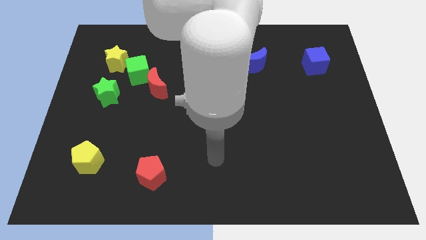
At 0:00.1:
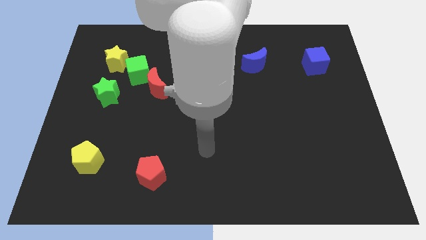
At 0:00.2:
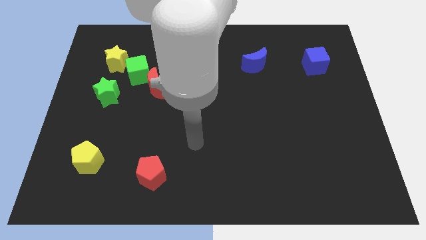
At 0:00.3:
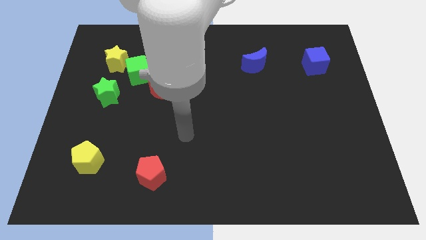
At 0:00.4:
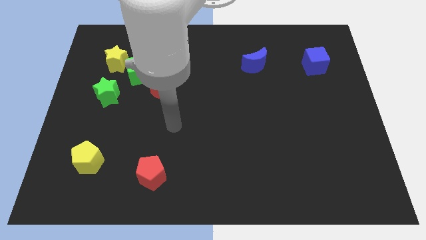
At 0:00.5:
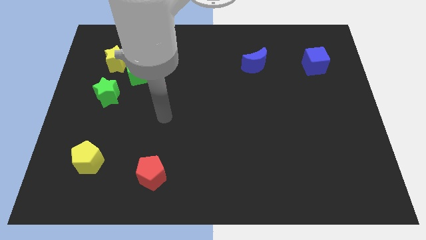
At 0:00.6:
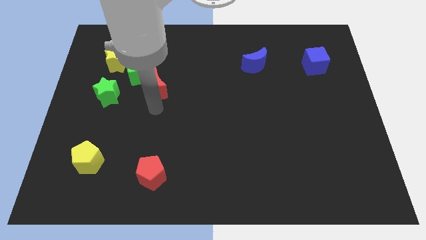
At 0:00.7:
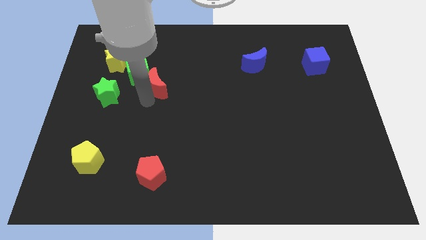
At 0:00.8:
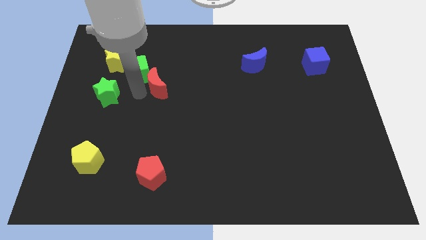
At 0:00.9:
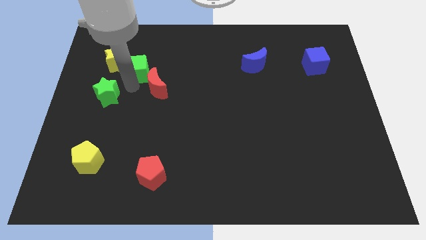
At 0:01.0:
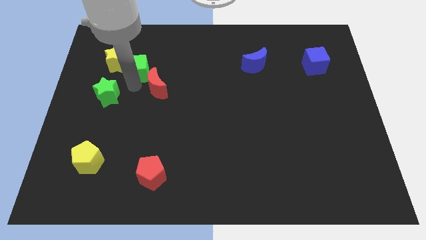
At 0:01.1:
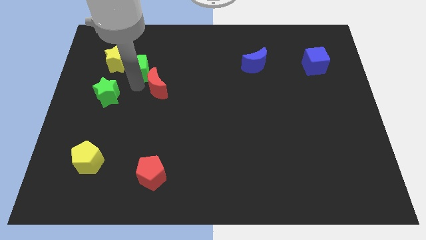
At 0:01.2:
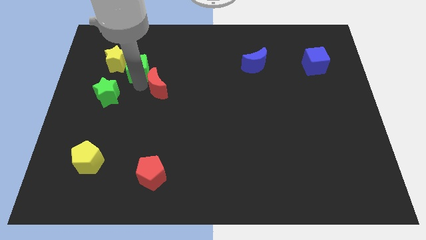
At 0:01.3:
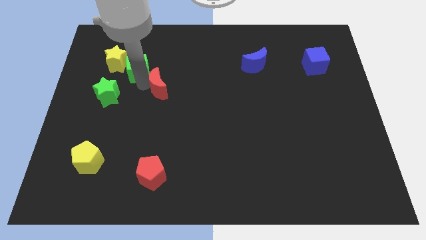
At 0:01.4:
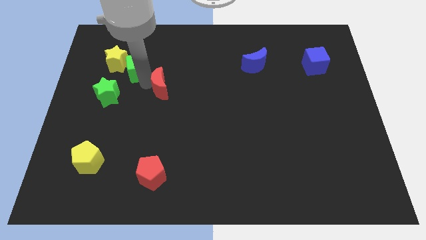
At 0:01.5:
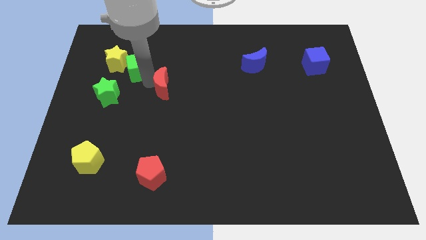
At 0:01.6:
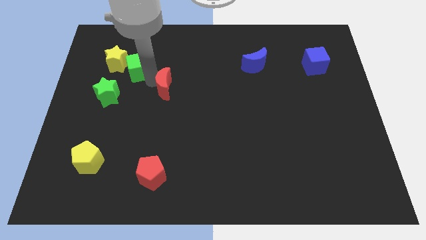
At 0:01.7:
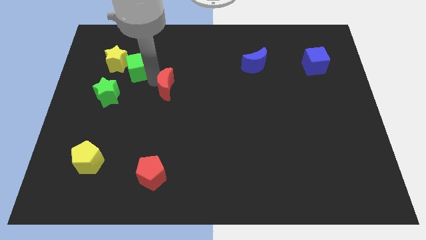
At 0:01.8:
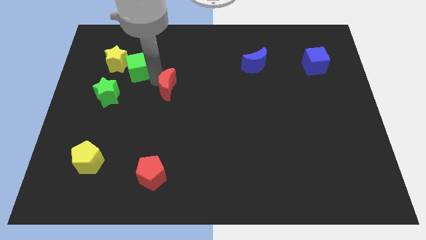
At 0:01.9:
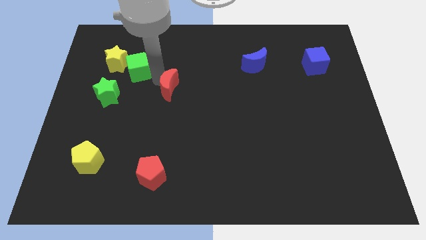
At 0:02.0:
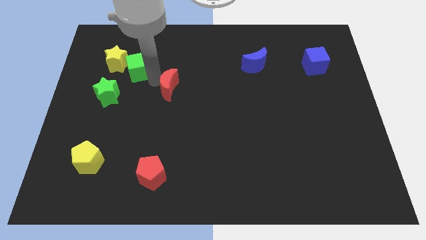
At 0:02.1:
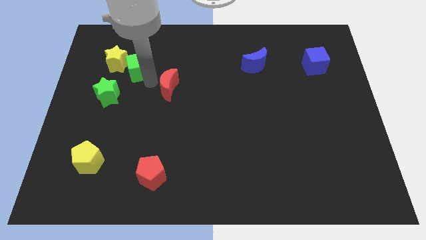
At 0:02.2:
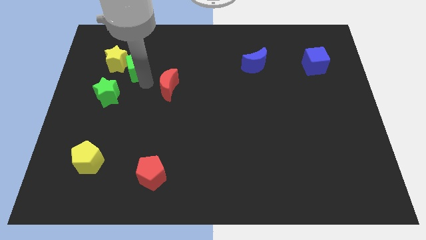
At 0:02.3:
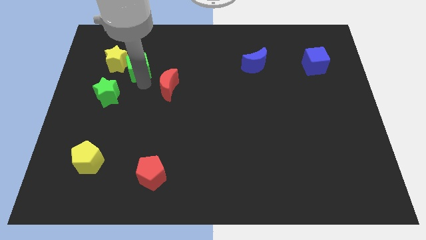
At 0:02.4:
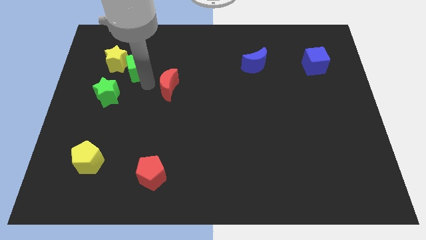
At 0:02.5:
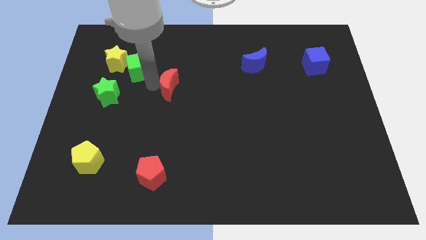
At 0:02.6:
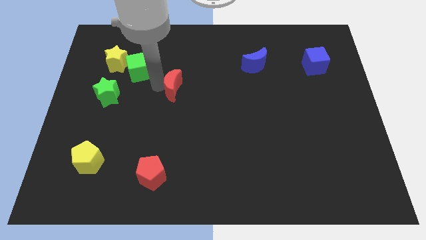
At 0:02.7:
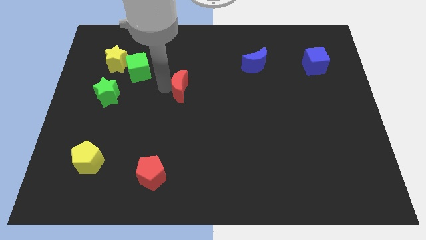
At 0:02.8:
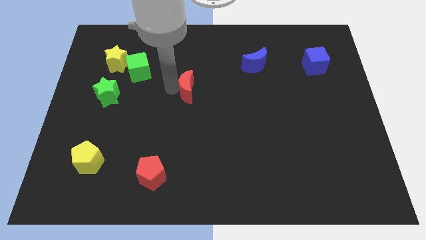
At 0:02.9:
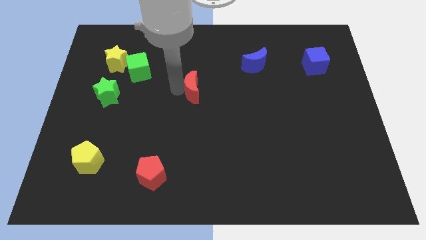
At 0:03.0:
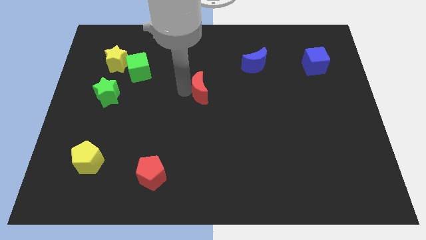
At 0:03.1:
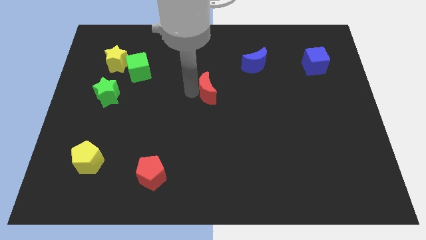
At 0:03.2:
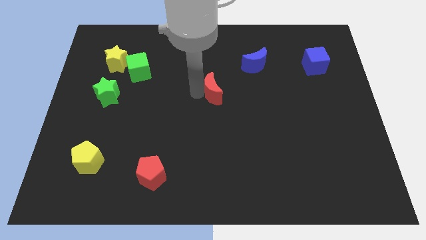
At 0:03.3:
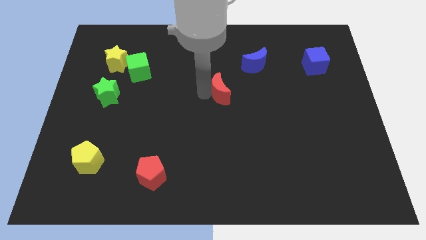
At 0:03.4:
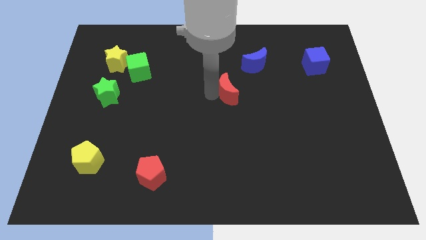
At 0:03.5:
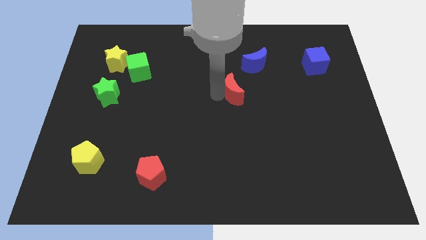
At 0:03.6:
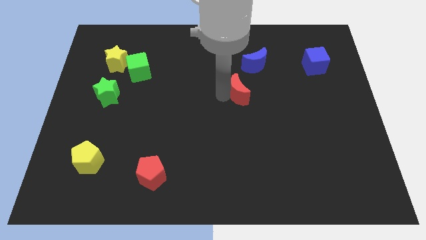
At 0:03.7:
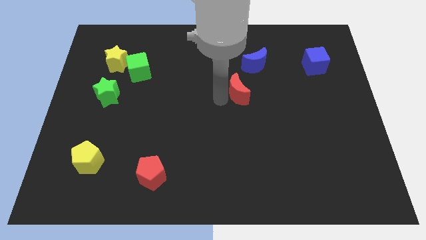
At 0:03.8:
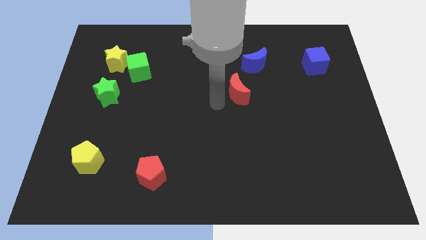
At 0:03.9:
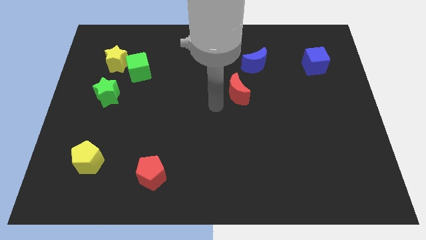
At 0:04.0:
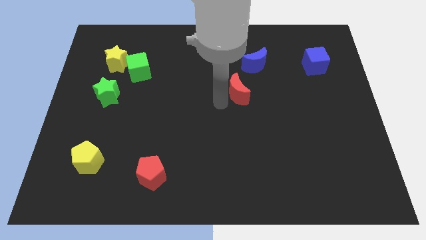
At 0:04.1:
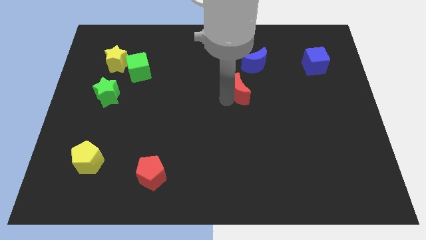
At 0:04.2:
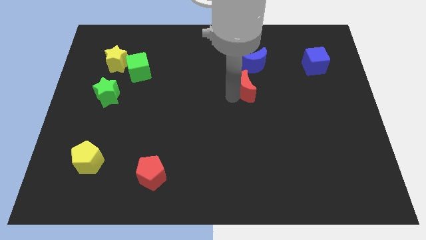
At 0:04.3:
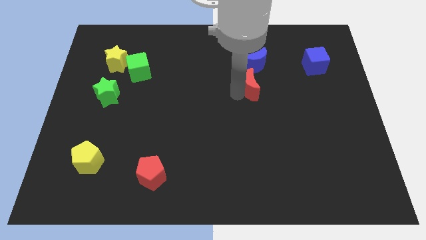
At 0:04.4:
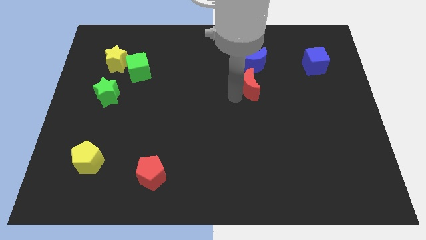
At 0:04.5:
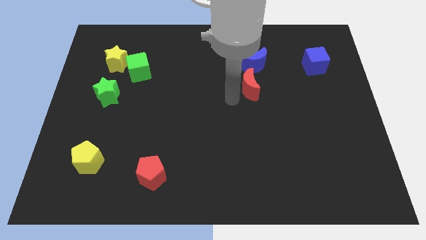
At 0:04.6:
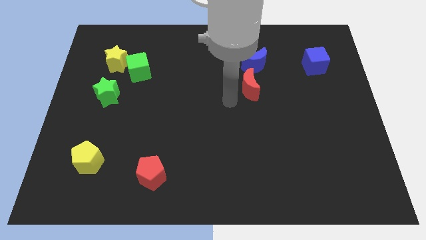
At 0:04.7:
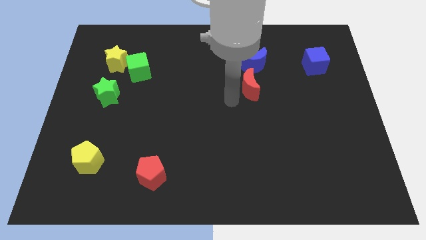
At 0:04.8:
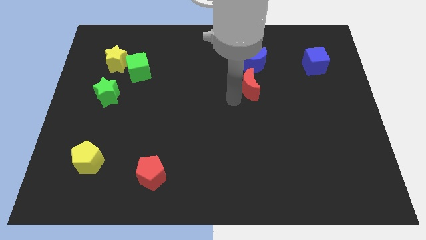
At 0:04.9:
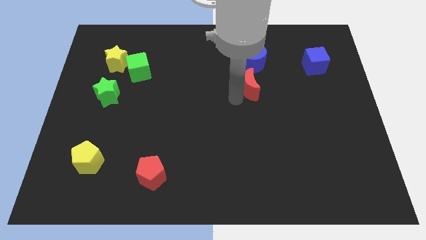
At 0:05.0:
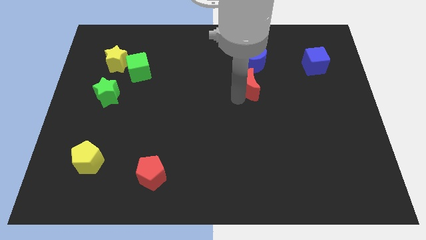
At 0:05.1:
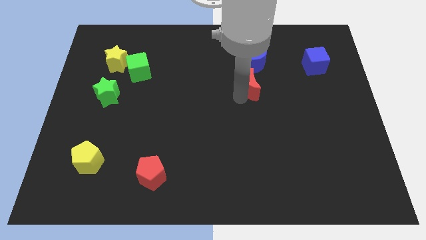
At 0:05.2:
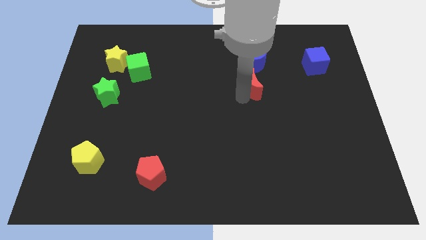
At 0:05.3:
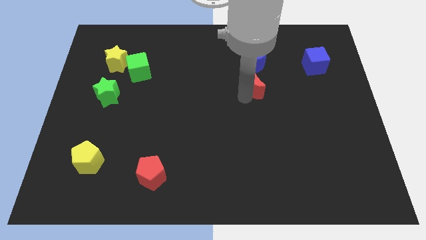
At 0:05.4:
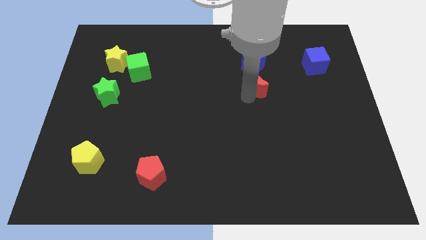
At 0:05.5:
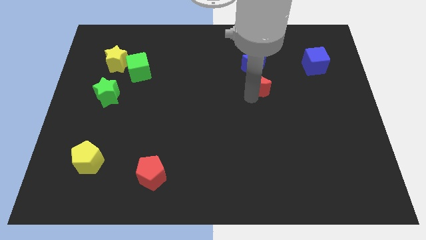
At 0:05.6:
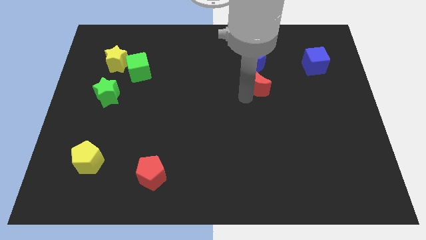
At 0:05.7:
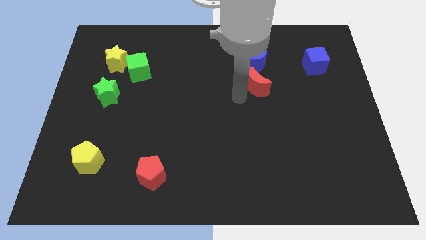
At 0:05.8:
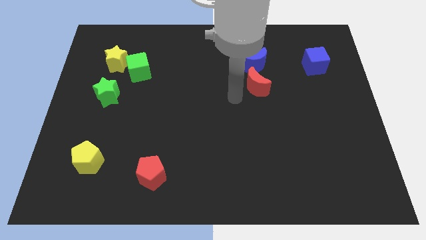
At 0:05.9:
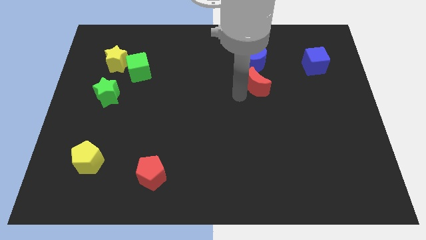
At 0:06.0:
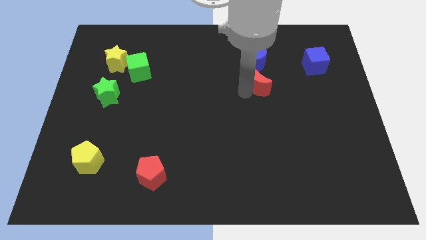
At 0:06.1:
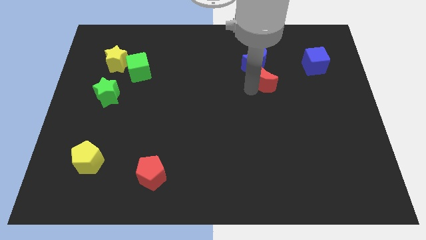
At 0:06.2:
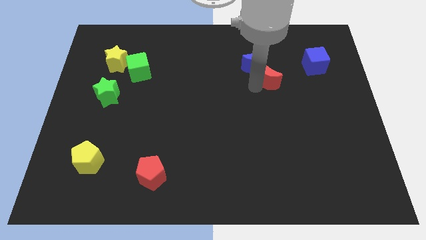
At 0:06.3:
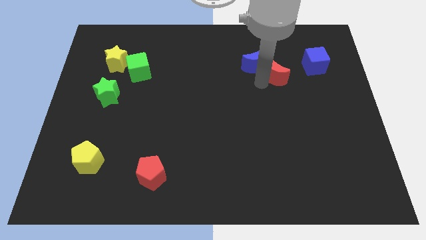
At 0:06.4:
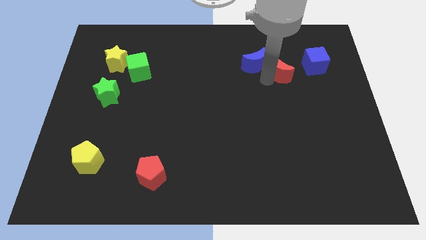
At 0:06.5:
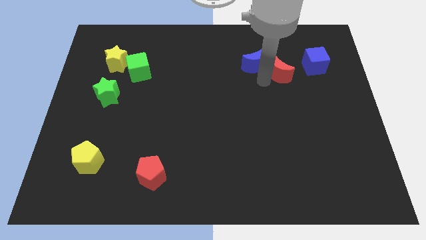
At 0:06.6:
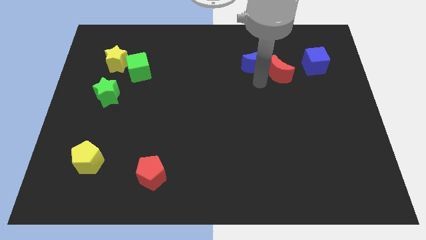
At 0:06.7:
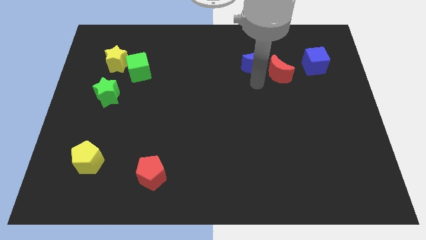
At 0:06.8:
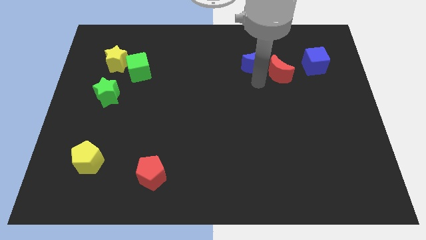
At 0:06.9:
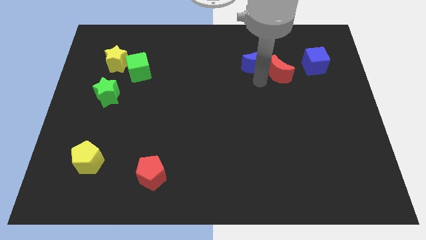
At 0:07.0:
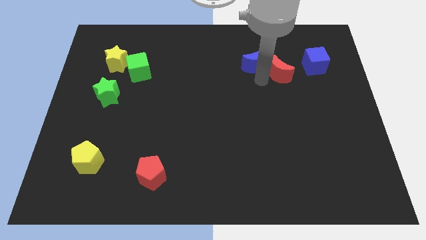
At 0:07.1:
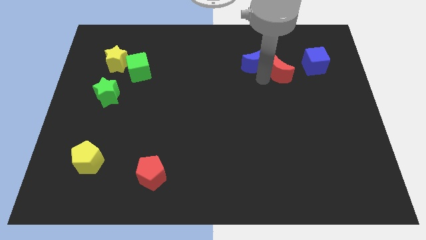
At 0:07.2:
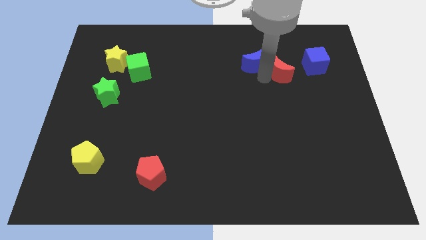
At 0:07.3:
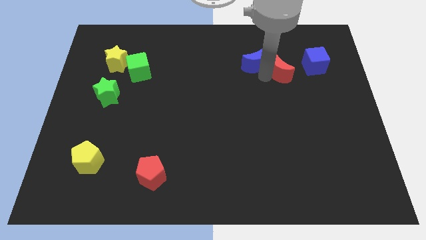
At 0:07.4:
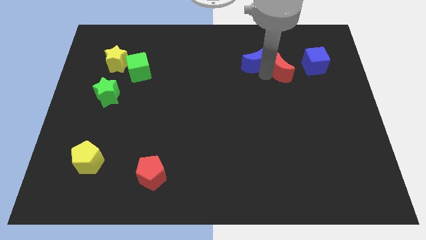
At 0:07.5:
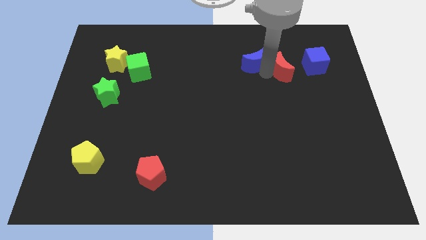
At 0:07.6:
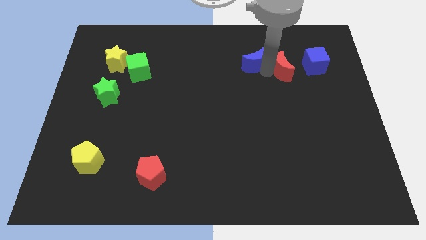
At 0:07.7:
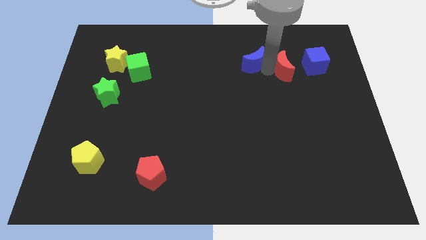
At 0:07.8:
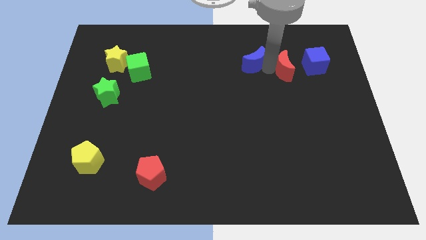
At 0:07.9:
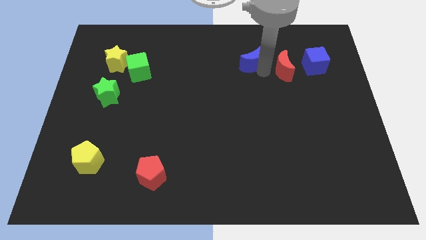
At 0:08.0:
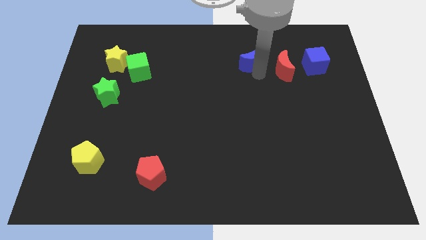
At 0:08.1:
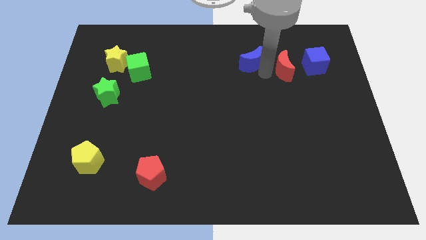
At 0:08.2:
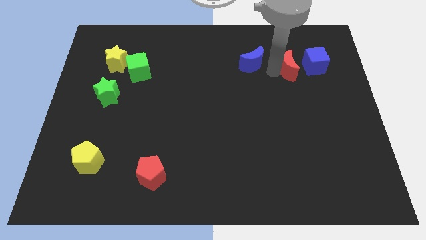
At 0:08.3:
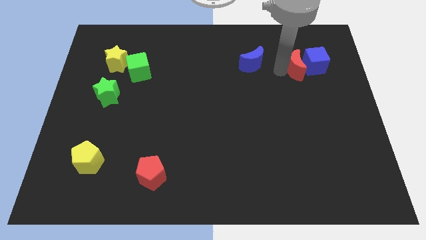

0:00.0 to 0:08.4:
move the red moon to the blue cube
